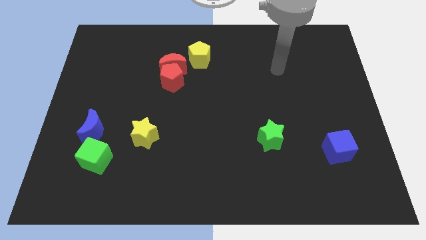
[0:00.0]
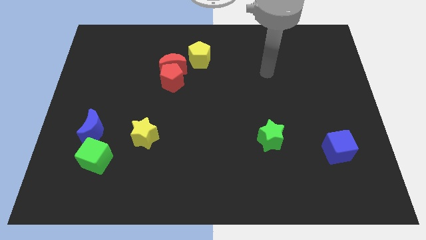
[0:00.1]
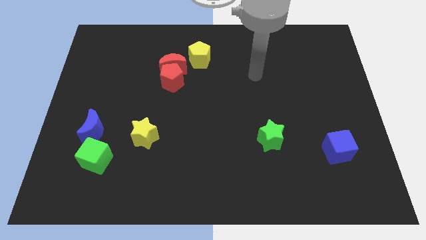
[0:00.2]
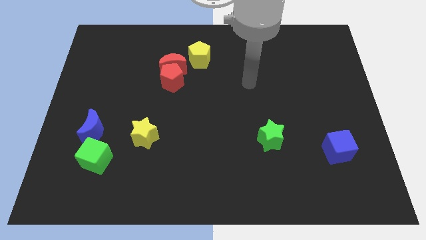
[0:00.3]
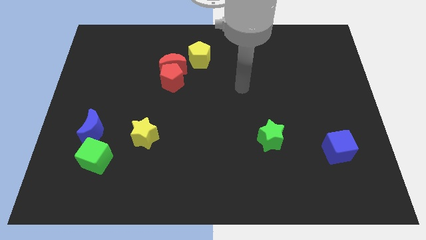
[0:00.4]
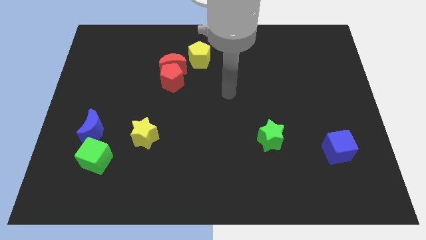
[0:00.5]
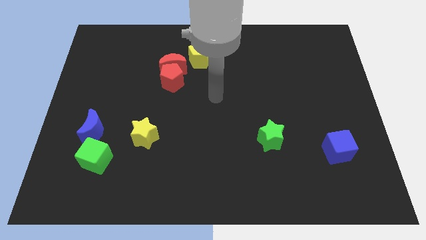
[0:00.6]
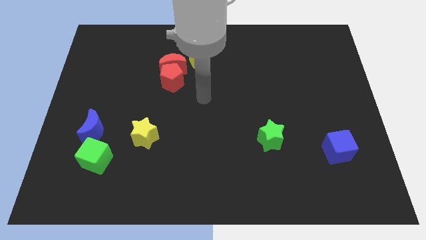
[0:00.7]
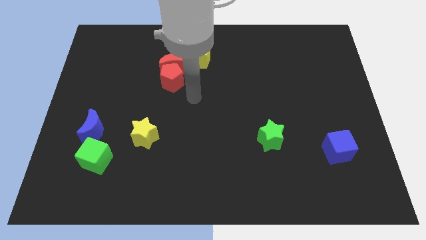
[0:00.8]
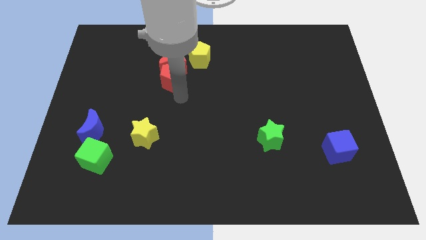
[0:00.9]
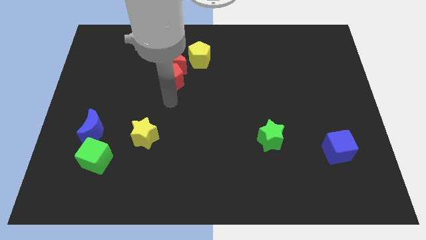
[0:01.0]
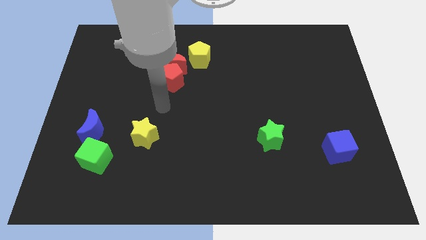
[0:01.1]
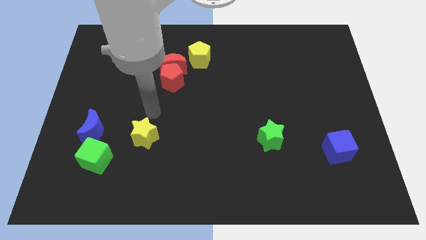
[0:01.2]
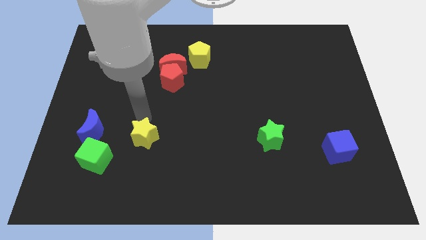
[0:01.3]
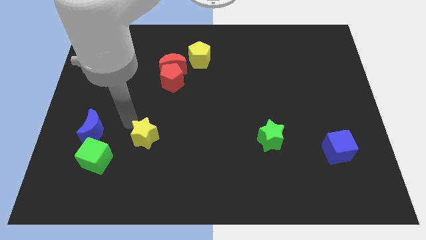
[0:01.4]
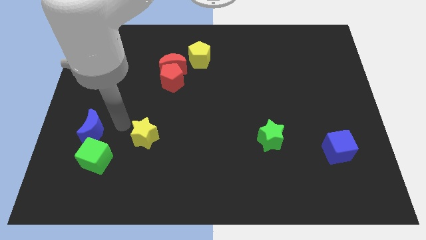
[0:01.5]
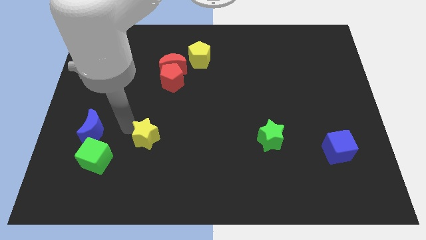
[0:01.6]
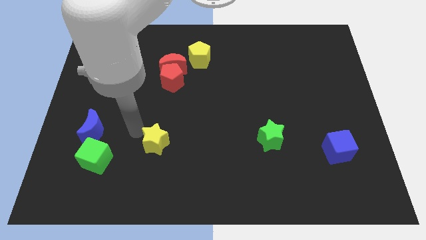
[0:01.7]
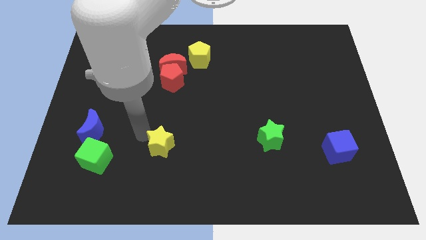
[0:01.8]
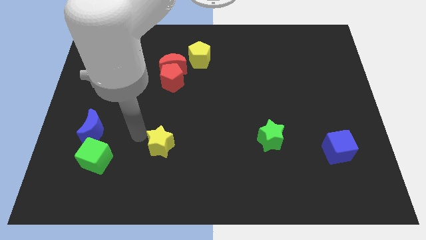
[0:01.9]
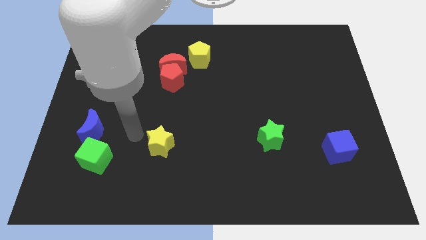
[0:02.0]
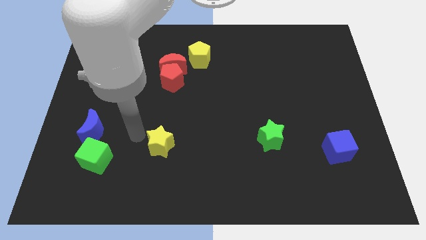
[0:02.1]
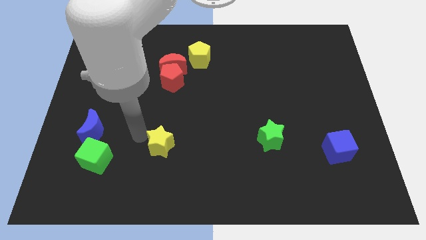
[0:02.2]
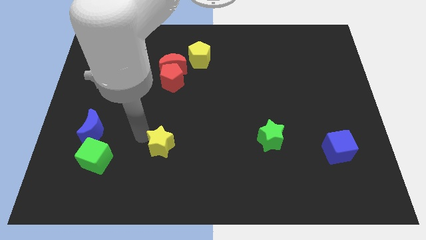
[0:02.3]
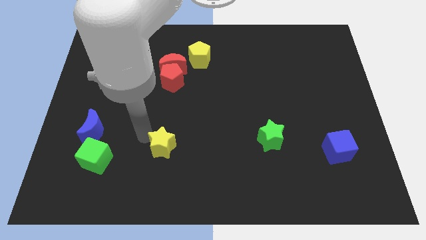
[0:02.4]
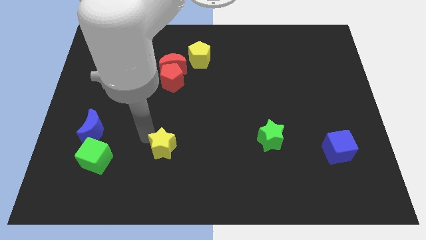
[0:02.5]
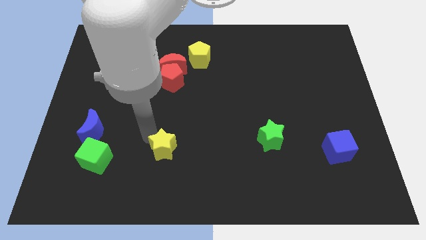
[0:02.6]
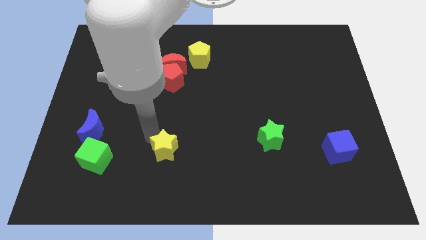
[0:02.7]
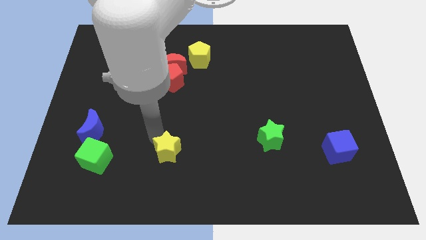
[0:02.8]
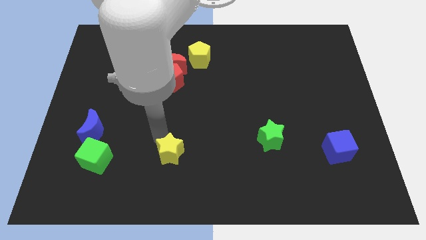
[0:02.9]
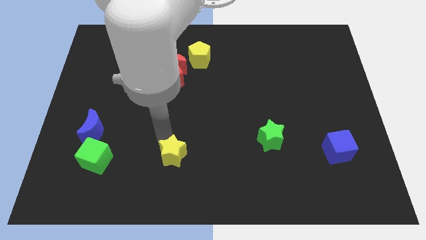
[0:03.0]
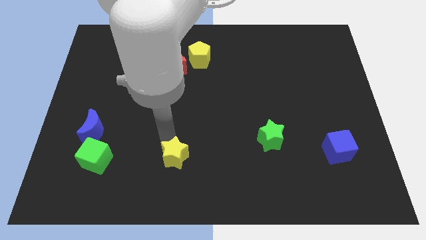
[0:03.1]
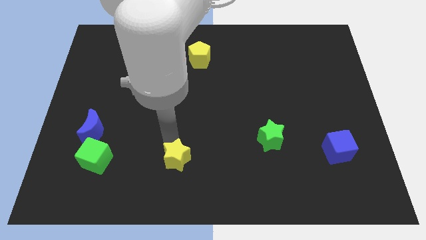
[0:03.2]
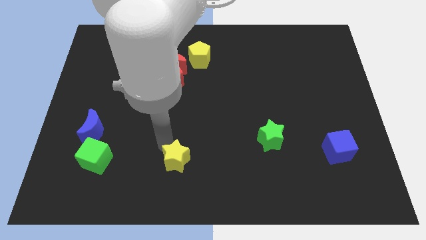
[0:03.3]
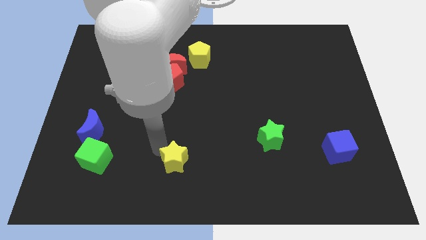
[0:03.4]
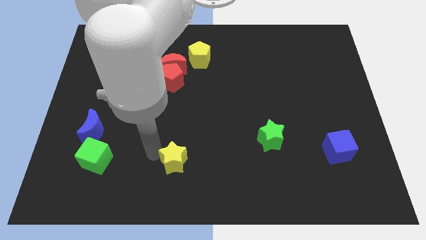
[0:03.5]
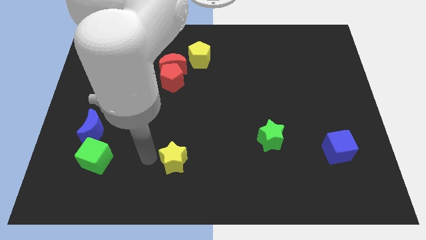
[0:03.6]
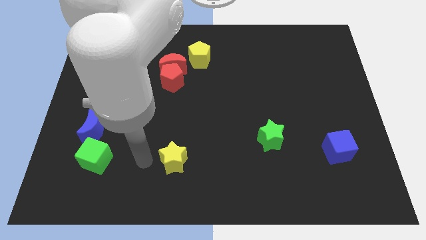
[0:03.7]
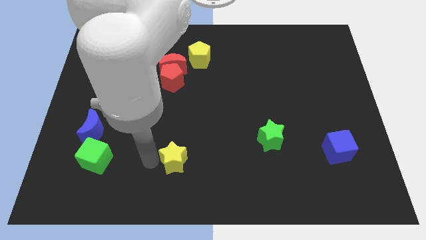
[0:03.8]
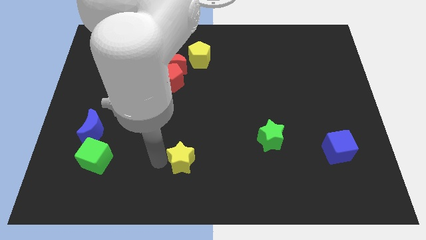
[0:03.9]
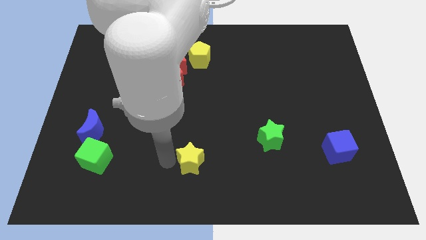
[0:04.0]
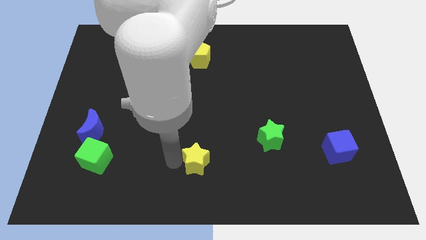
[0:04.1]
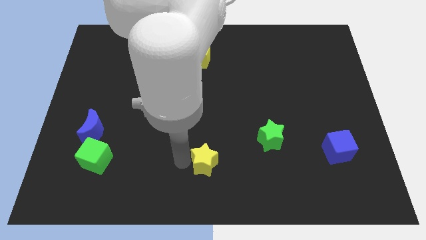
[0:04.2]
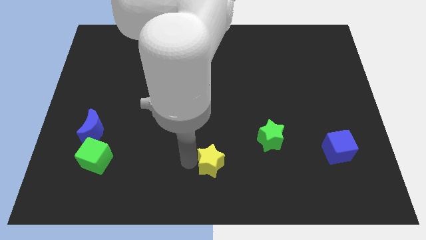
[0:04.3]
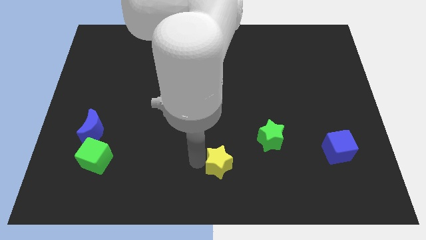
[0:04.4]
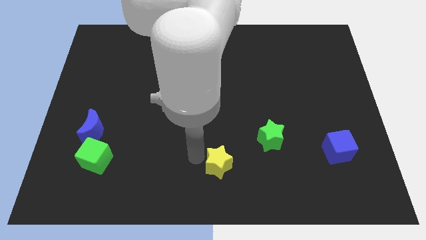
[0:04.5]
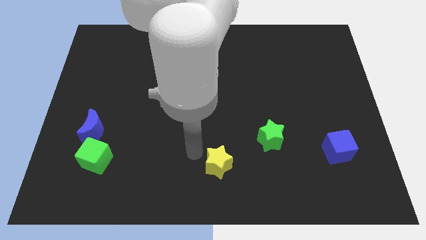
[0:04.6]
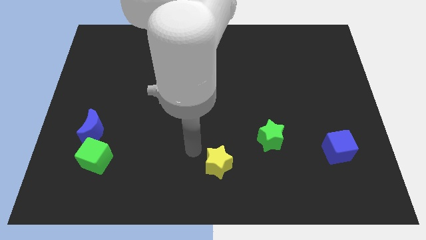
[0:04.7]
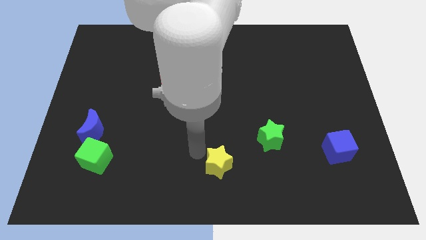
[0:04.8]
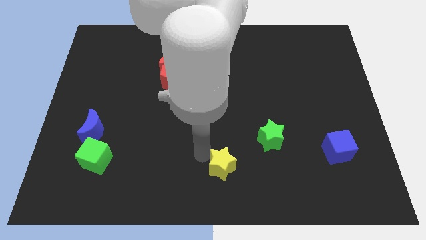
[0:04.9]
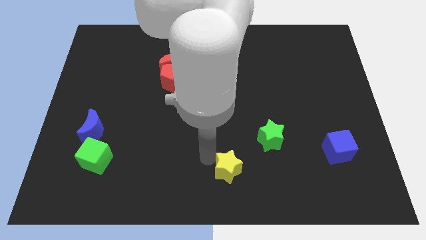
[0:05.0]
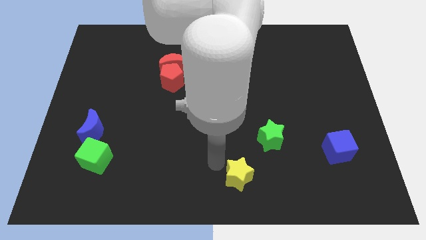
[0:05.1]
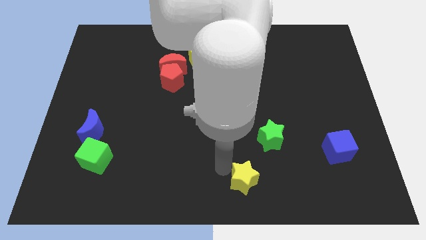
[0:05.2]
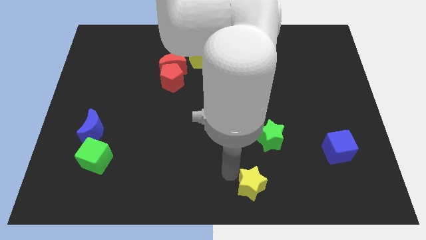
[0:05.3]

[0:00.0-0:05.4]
slide the yellow star below the green star

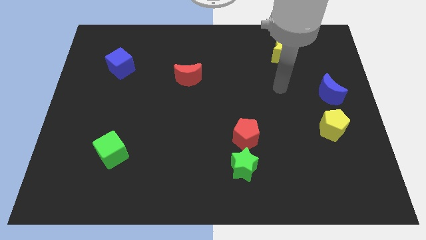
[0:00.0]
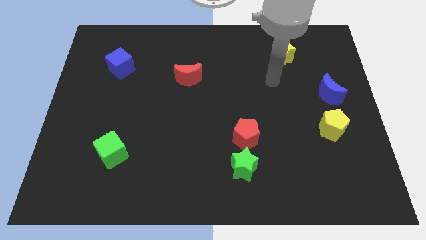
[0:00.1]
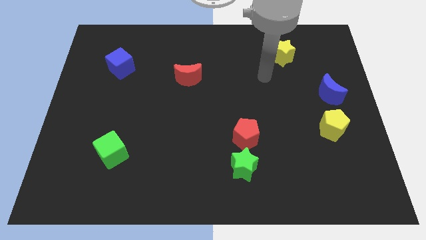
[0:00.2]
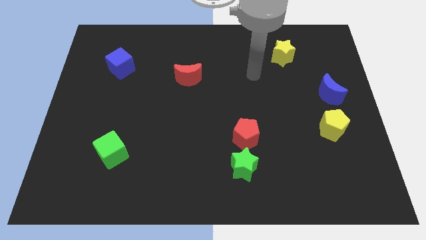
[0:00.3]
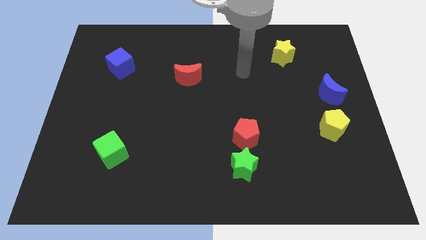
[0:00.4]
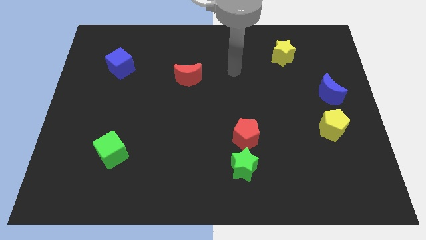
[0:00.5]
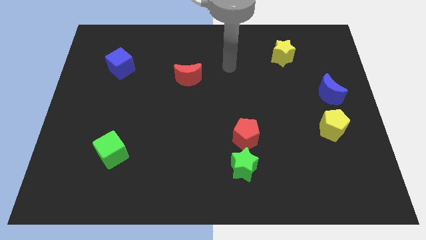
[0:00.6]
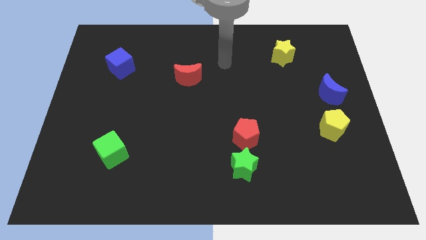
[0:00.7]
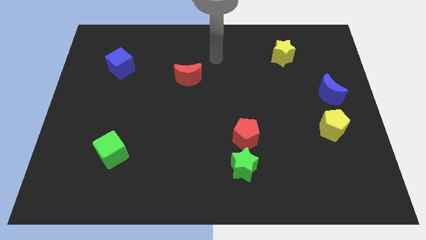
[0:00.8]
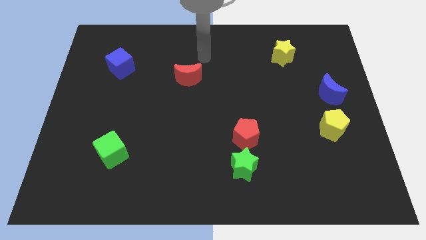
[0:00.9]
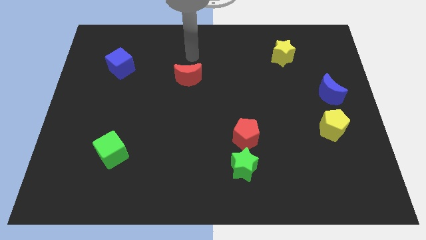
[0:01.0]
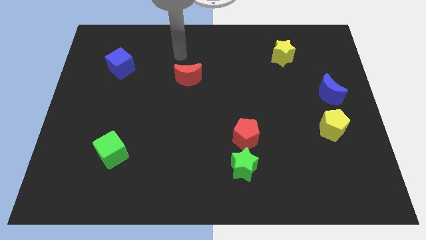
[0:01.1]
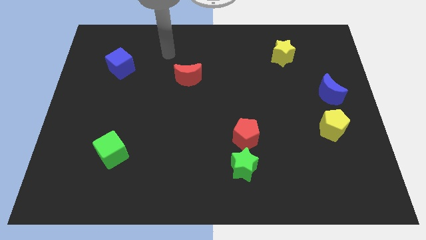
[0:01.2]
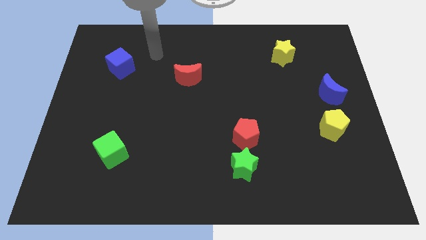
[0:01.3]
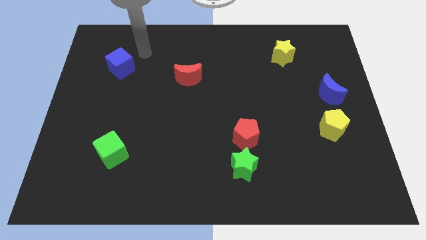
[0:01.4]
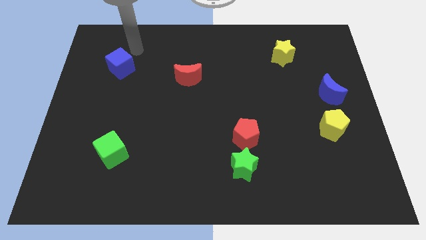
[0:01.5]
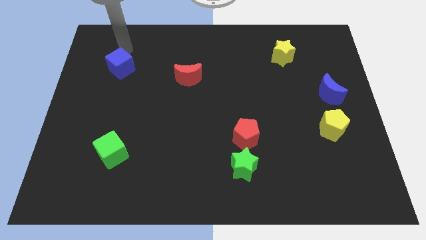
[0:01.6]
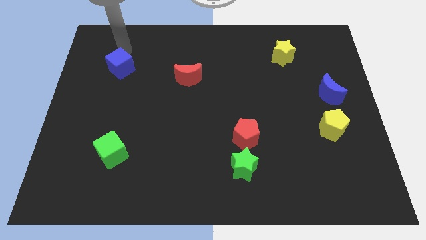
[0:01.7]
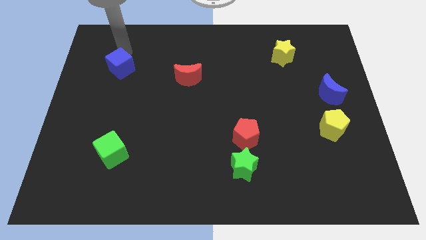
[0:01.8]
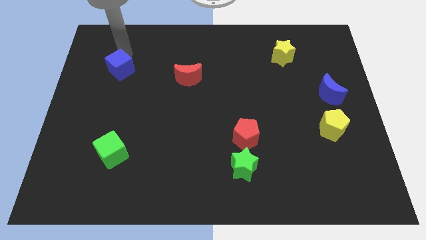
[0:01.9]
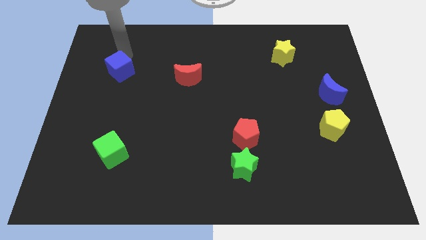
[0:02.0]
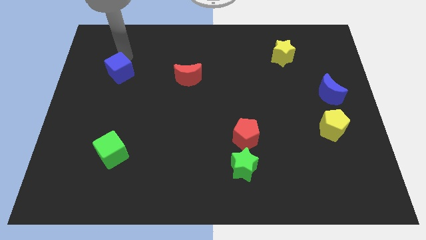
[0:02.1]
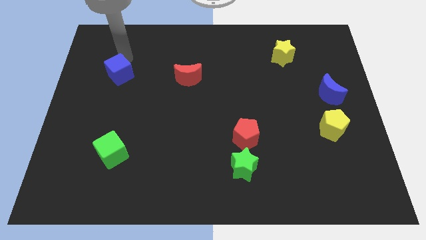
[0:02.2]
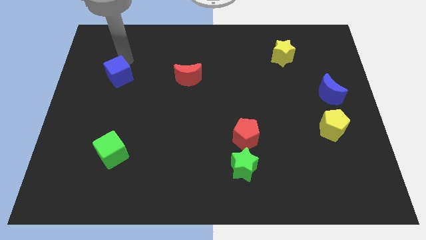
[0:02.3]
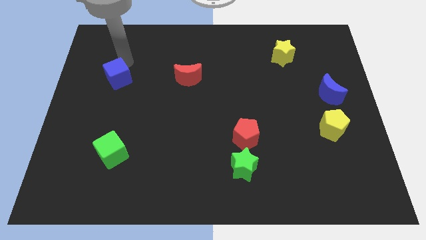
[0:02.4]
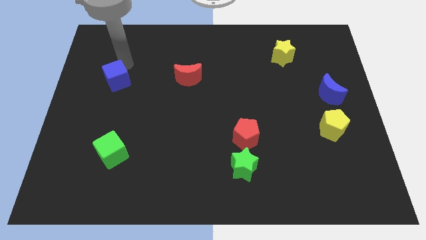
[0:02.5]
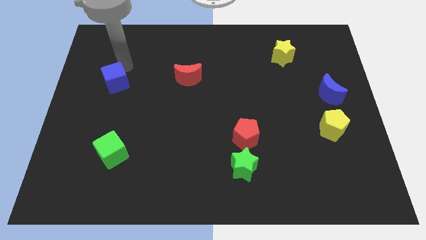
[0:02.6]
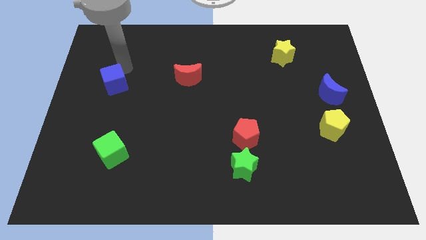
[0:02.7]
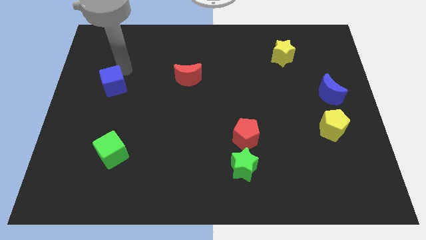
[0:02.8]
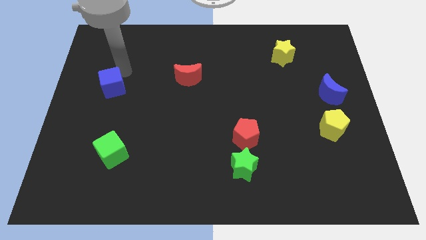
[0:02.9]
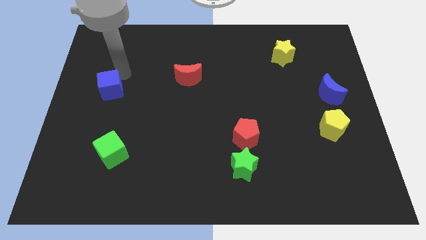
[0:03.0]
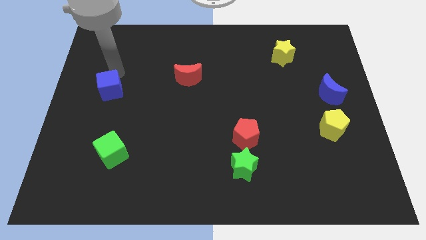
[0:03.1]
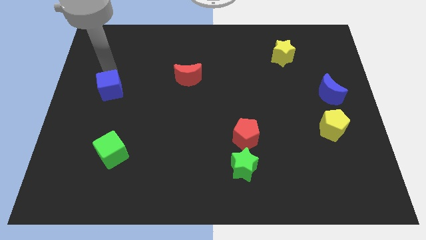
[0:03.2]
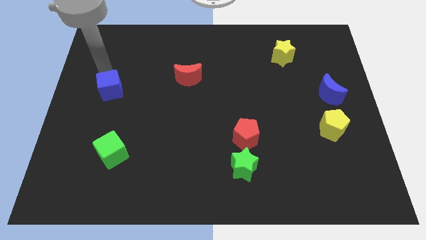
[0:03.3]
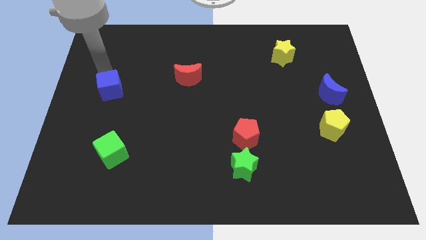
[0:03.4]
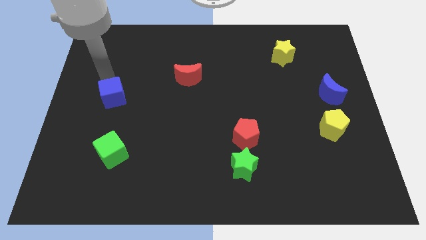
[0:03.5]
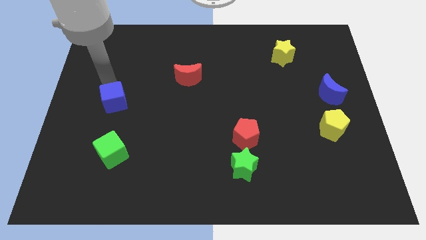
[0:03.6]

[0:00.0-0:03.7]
put the blue cube to the top of the green cube
